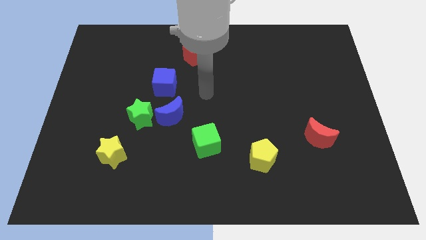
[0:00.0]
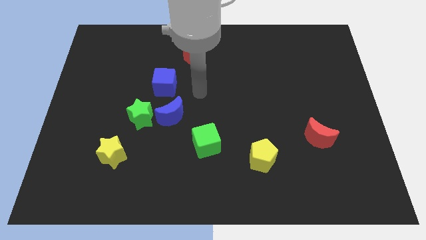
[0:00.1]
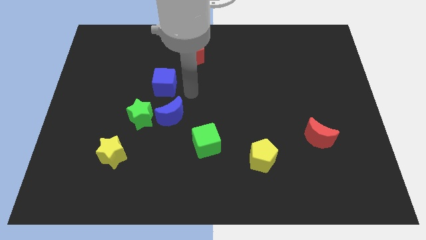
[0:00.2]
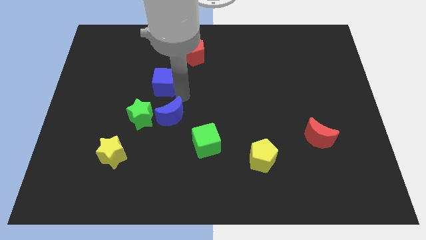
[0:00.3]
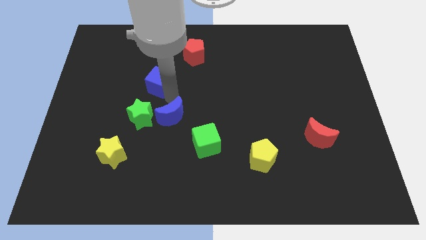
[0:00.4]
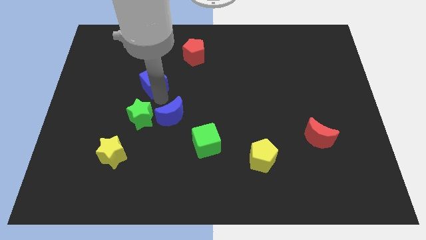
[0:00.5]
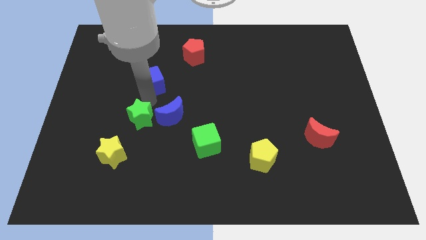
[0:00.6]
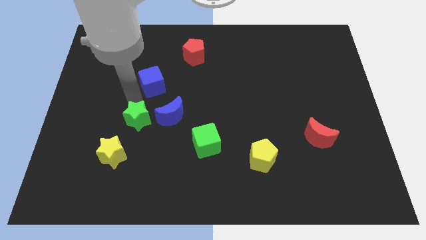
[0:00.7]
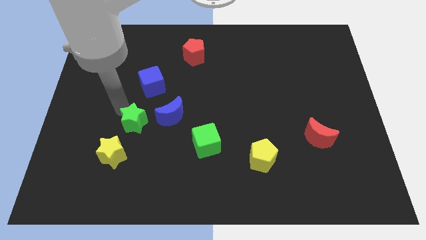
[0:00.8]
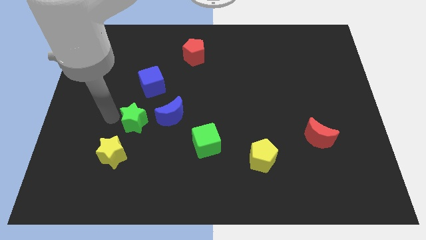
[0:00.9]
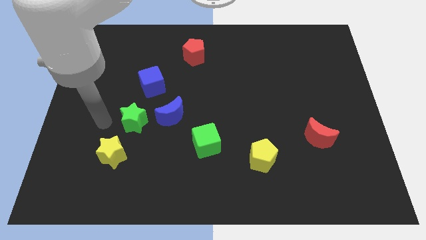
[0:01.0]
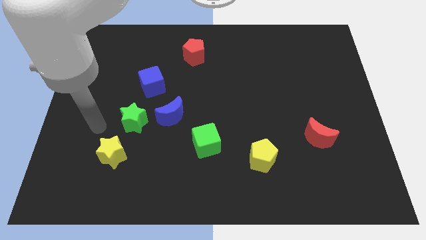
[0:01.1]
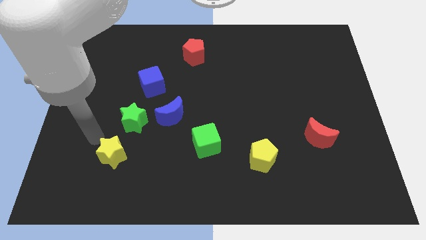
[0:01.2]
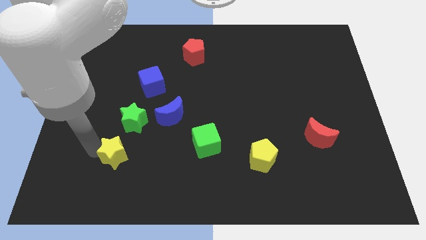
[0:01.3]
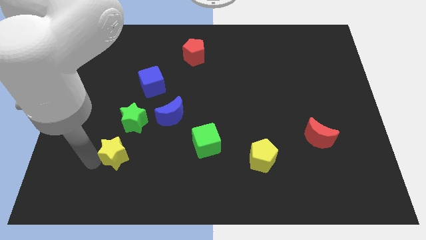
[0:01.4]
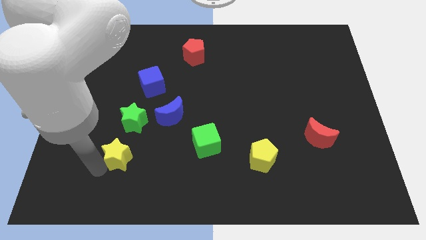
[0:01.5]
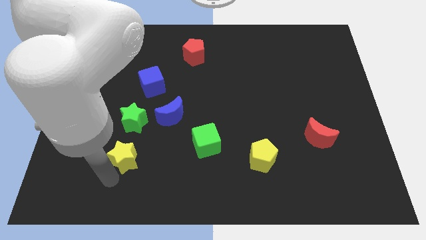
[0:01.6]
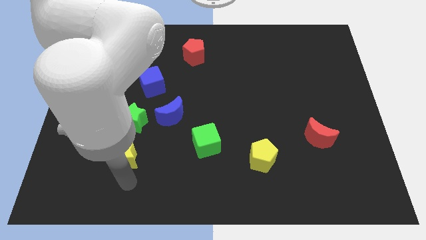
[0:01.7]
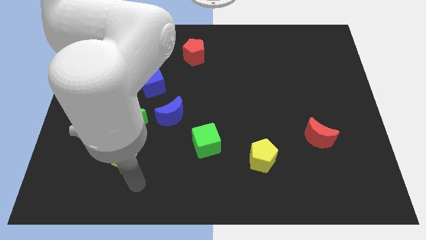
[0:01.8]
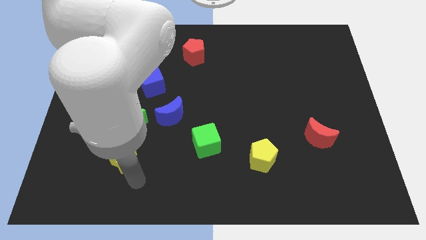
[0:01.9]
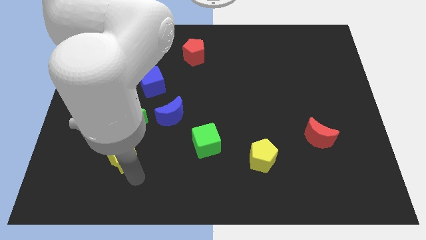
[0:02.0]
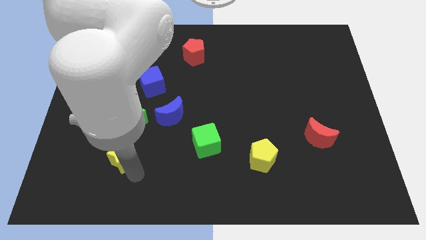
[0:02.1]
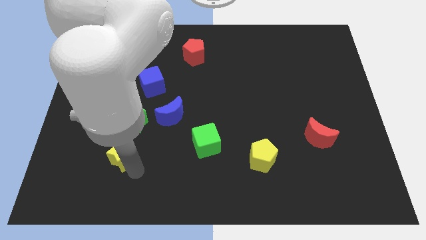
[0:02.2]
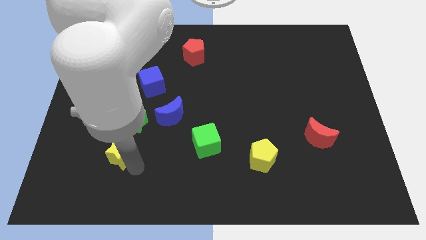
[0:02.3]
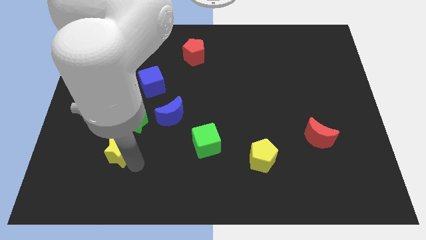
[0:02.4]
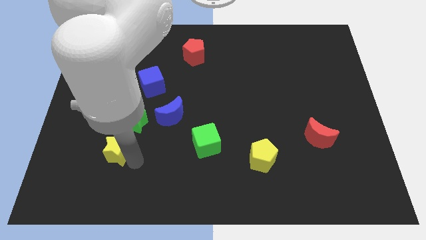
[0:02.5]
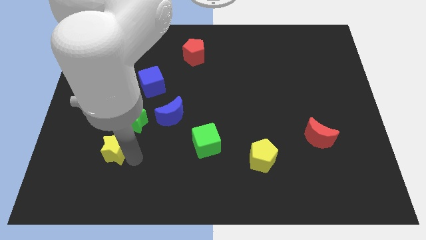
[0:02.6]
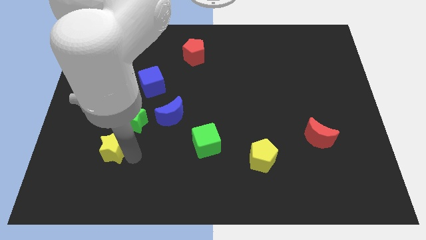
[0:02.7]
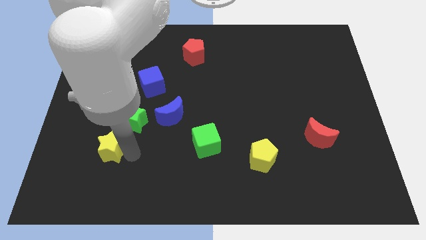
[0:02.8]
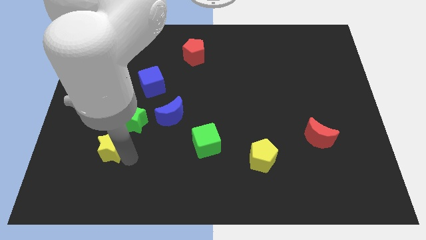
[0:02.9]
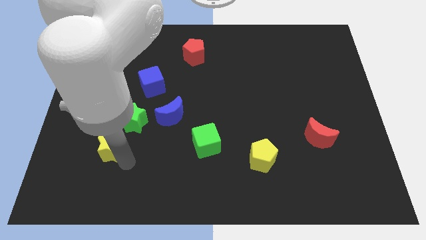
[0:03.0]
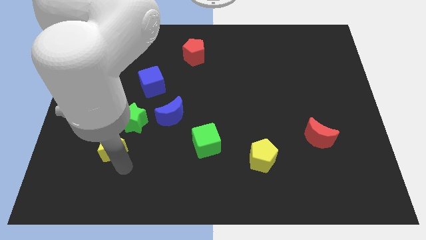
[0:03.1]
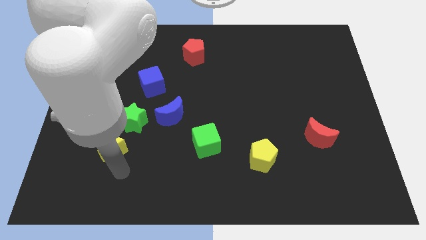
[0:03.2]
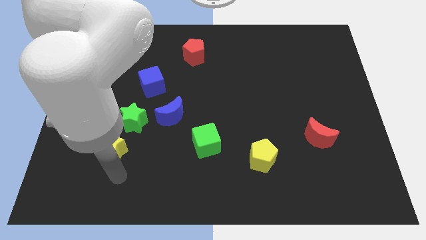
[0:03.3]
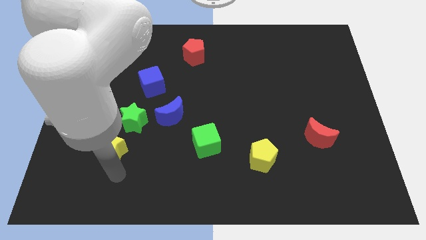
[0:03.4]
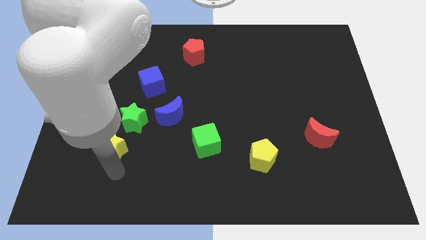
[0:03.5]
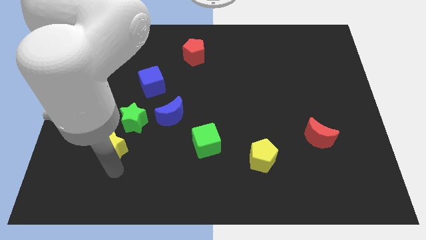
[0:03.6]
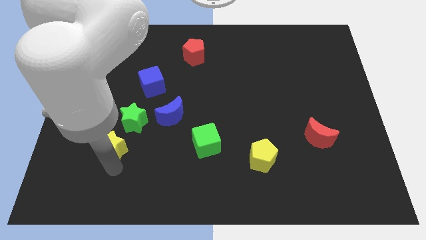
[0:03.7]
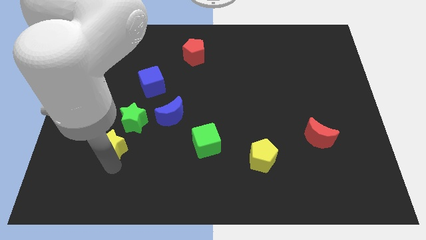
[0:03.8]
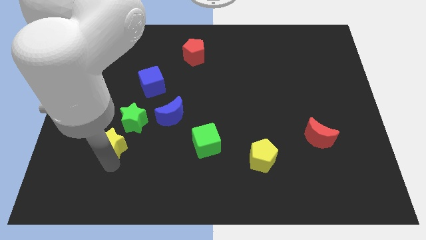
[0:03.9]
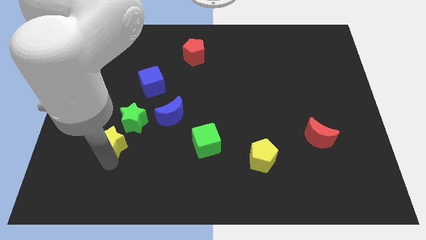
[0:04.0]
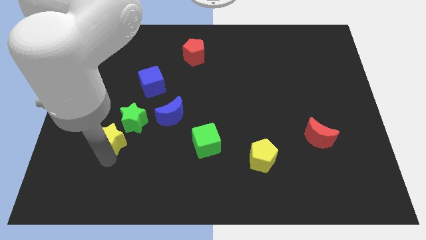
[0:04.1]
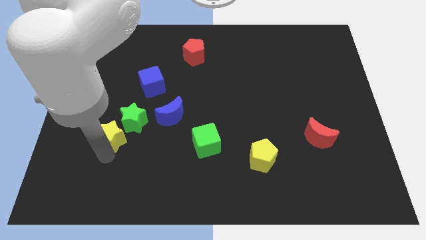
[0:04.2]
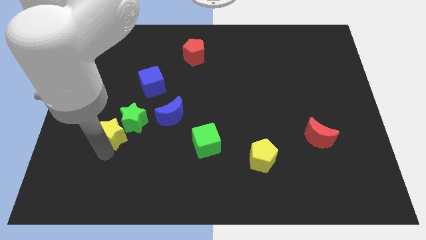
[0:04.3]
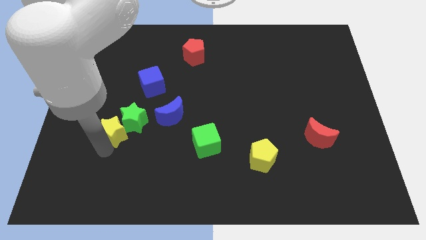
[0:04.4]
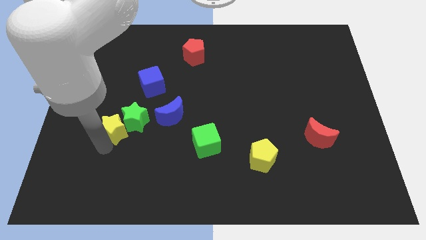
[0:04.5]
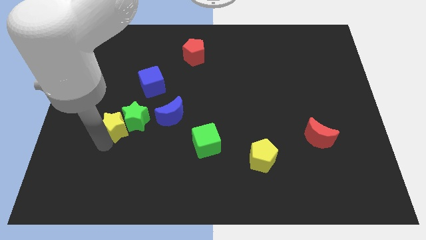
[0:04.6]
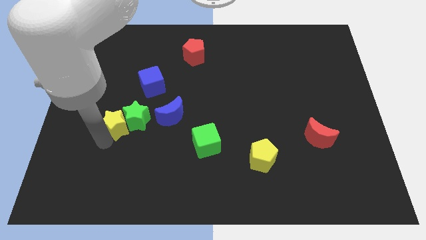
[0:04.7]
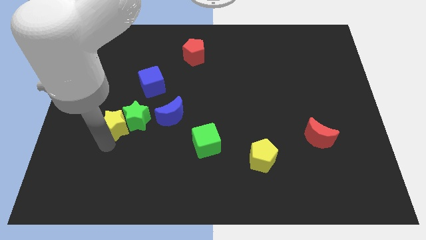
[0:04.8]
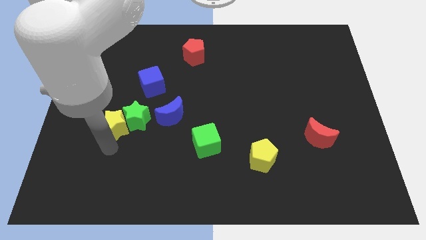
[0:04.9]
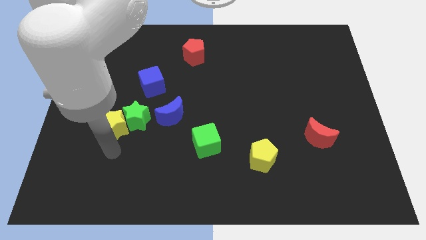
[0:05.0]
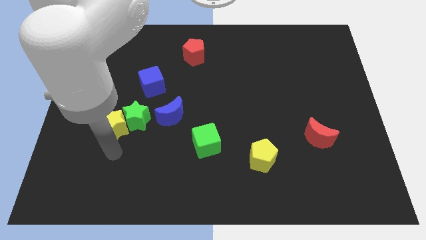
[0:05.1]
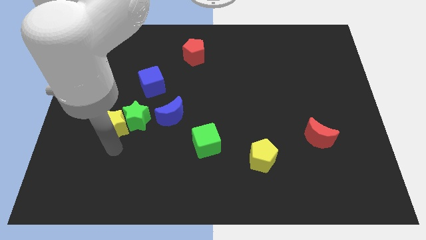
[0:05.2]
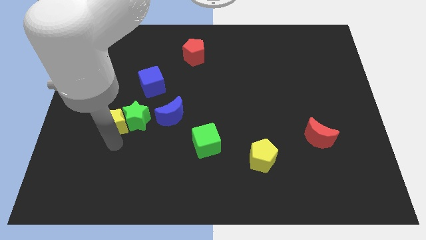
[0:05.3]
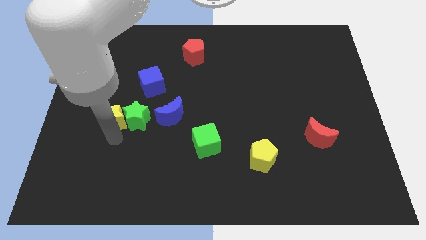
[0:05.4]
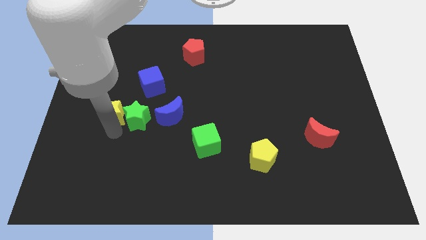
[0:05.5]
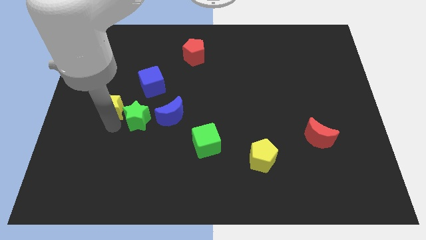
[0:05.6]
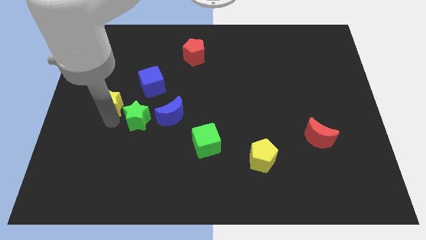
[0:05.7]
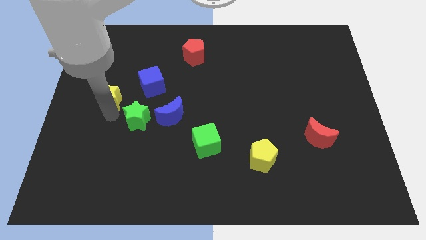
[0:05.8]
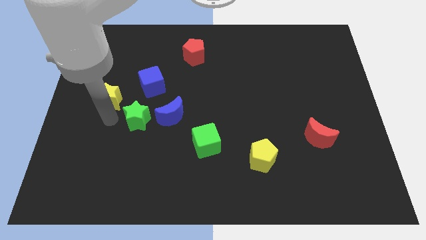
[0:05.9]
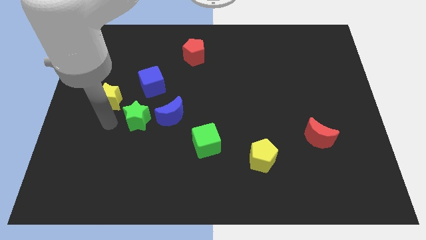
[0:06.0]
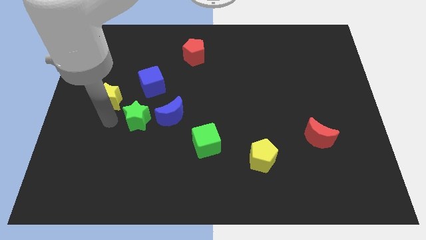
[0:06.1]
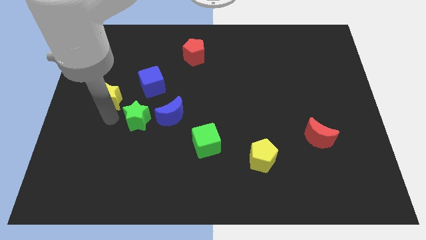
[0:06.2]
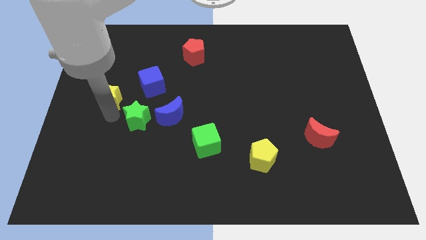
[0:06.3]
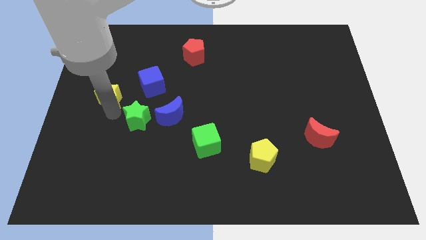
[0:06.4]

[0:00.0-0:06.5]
put the yellow star left of the blue cube
